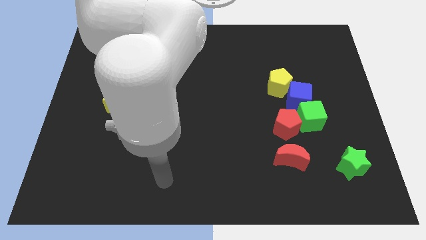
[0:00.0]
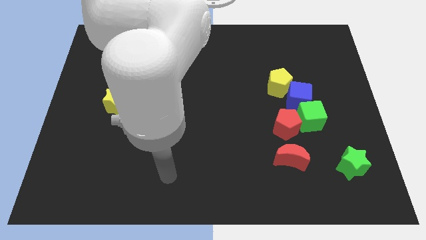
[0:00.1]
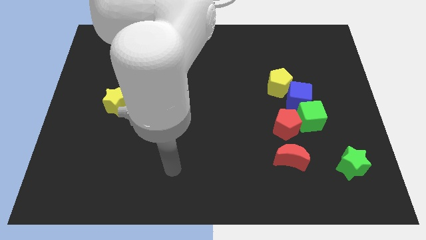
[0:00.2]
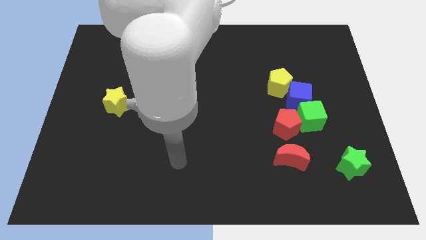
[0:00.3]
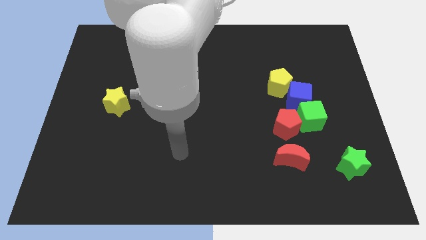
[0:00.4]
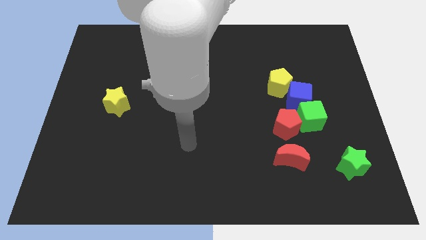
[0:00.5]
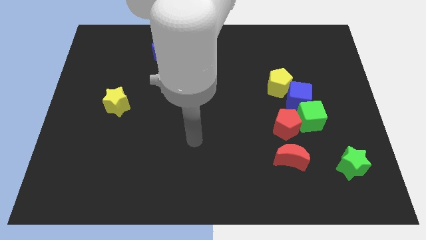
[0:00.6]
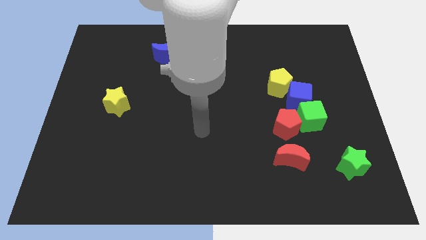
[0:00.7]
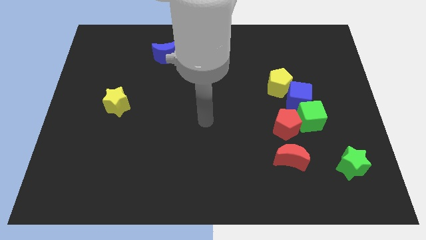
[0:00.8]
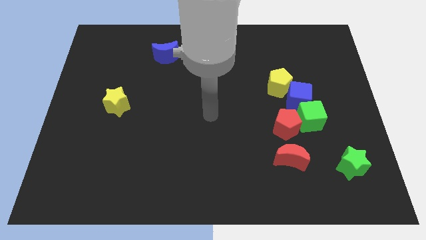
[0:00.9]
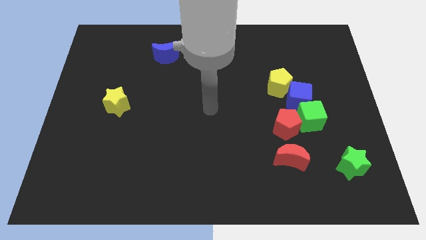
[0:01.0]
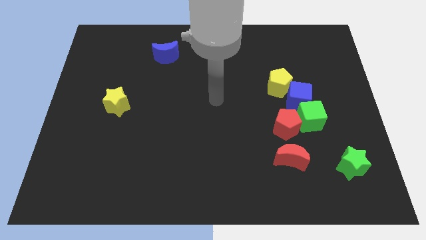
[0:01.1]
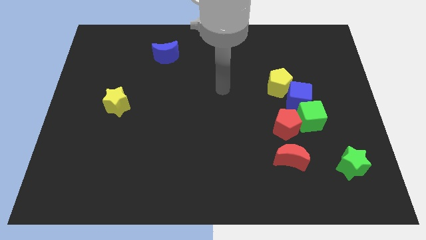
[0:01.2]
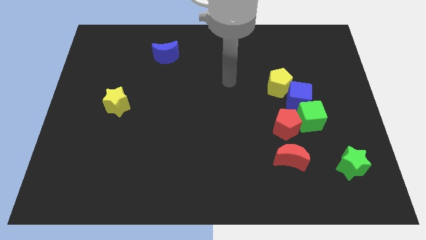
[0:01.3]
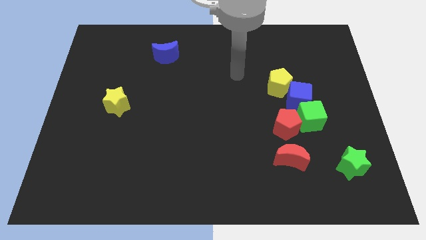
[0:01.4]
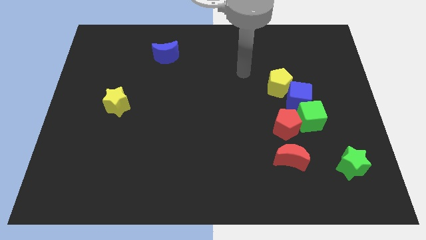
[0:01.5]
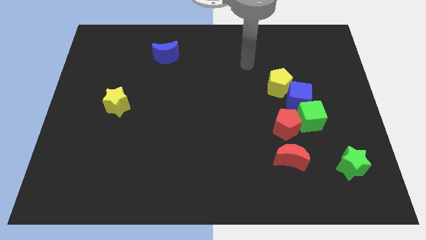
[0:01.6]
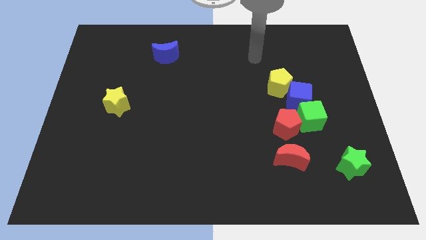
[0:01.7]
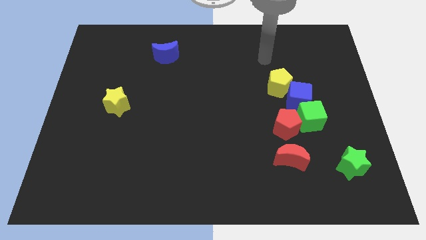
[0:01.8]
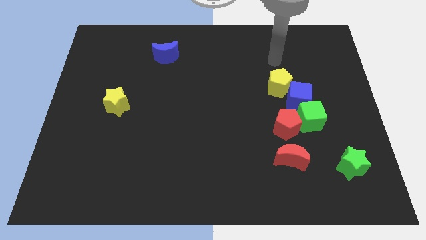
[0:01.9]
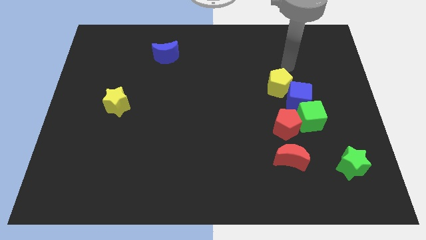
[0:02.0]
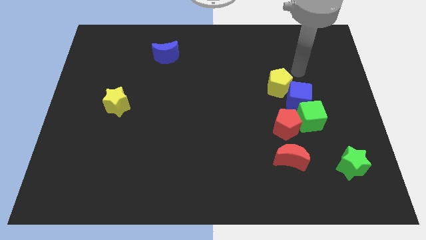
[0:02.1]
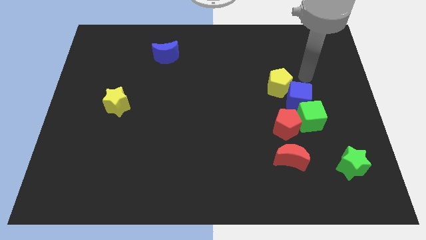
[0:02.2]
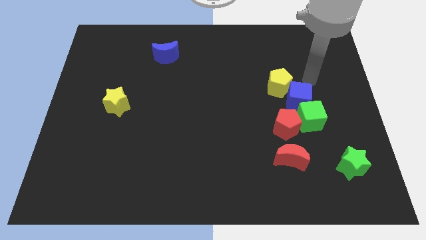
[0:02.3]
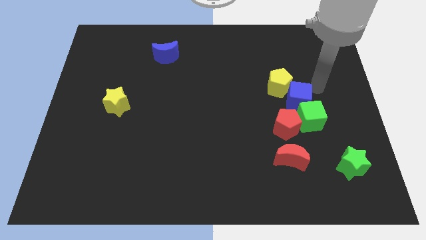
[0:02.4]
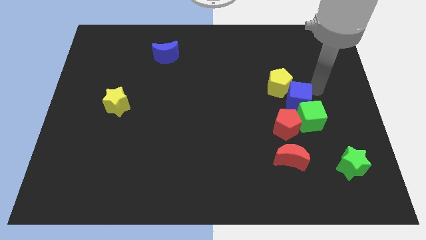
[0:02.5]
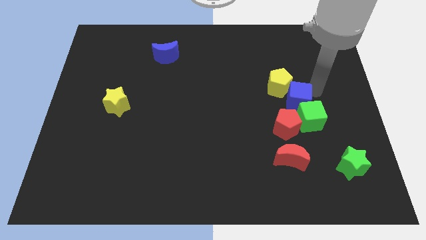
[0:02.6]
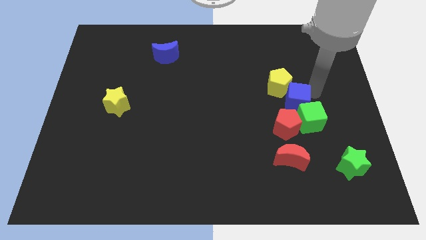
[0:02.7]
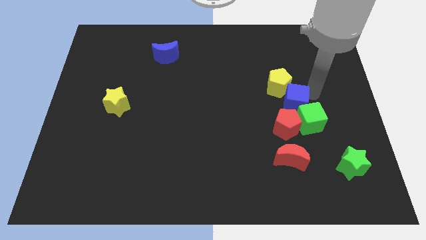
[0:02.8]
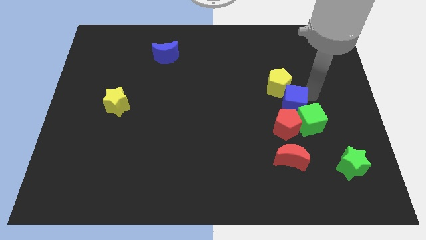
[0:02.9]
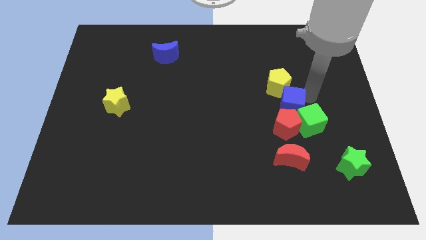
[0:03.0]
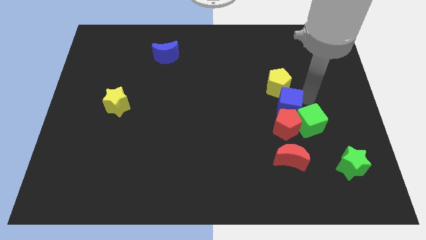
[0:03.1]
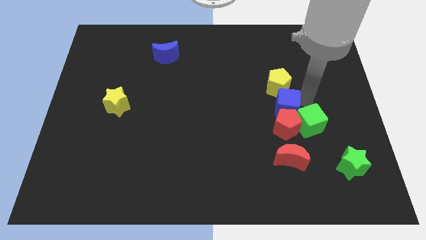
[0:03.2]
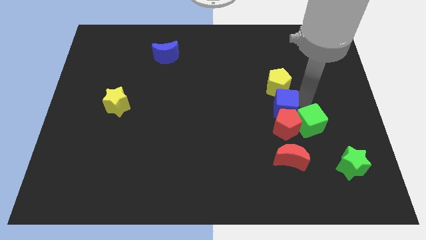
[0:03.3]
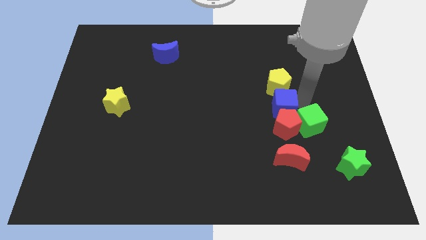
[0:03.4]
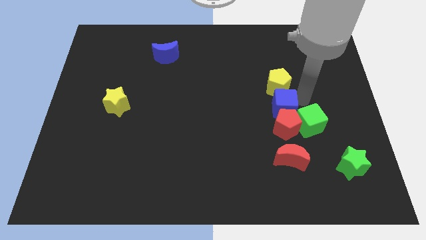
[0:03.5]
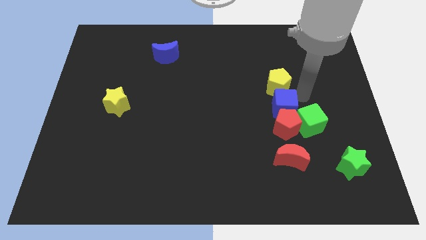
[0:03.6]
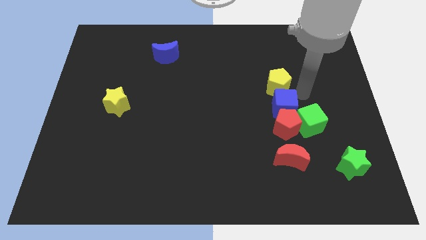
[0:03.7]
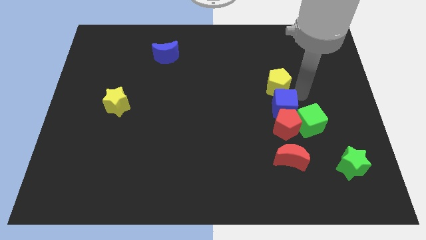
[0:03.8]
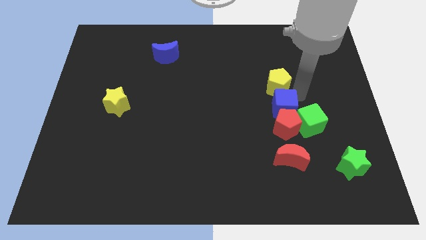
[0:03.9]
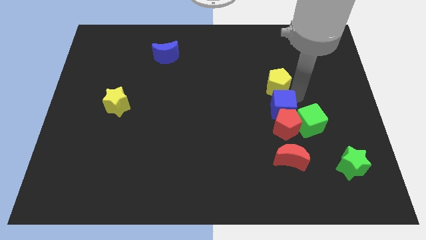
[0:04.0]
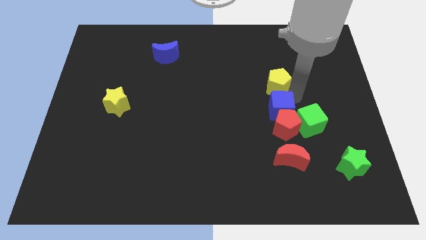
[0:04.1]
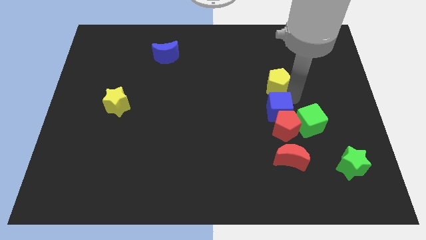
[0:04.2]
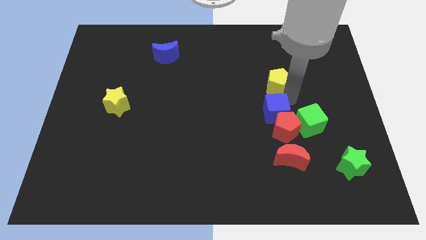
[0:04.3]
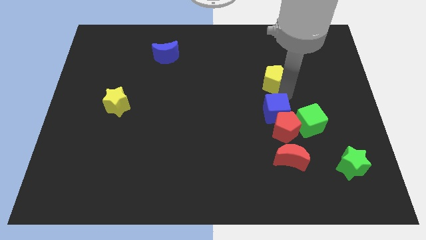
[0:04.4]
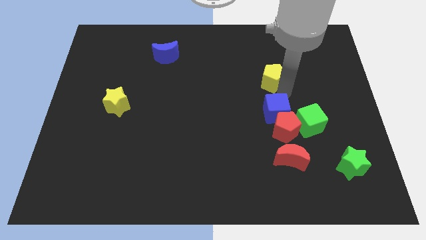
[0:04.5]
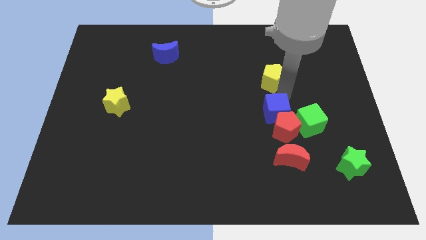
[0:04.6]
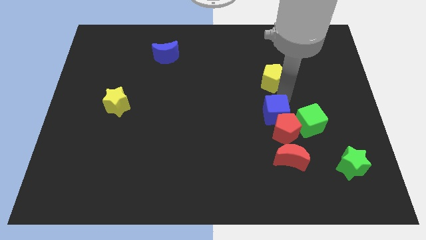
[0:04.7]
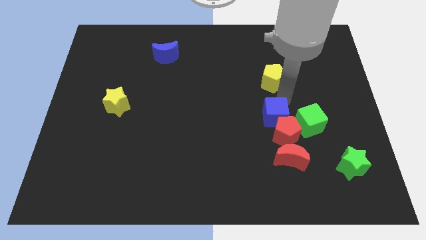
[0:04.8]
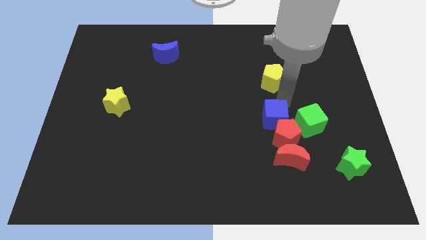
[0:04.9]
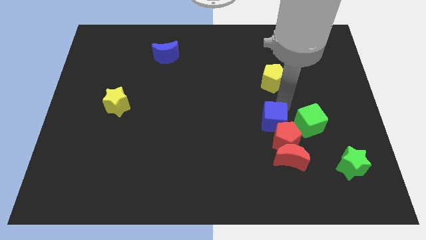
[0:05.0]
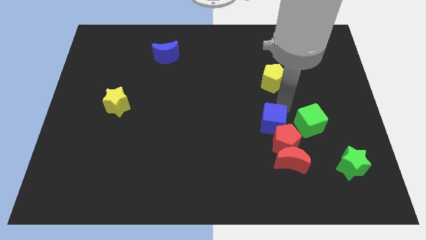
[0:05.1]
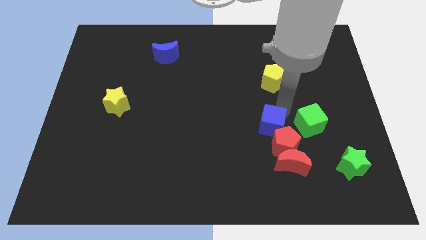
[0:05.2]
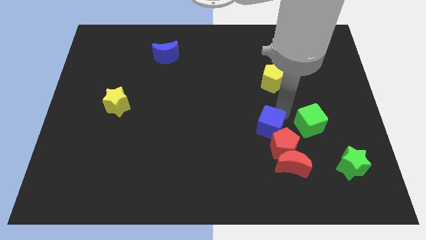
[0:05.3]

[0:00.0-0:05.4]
slide the blue cube diagonally up and to the left of the red moon

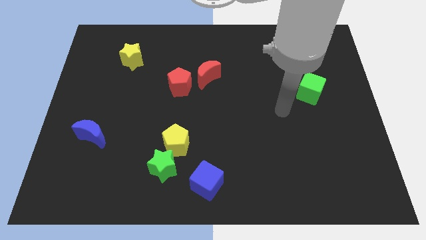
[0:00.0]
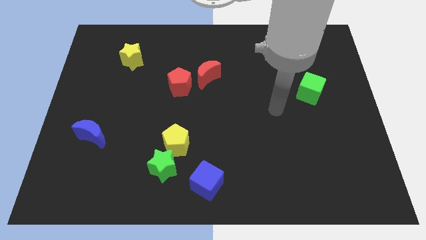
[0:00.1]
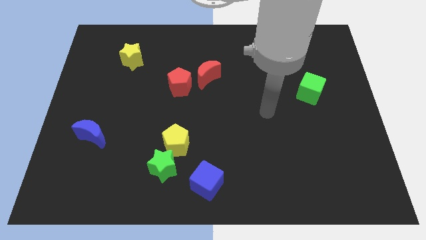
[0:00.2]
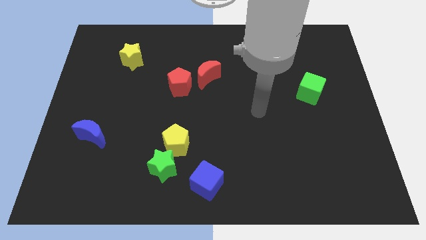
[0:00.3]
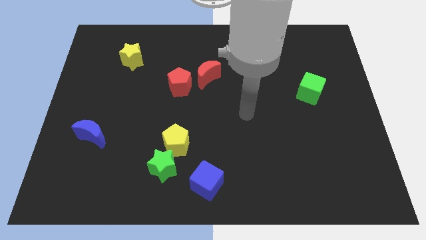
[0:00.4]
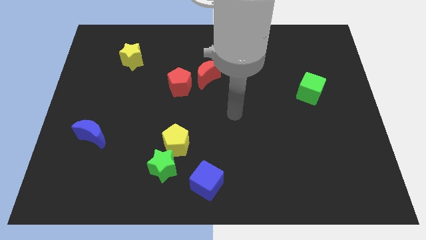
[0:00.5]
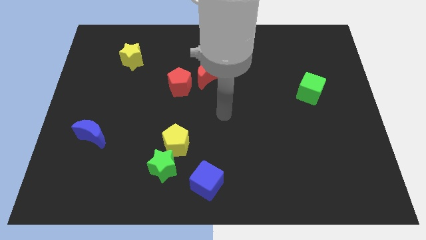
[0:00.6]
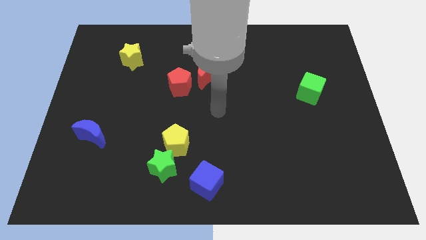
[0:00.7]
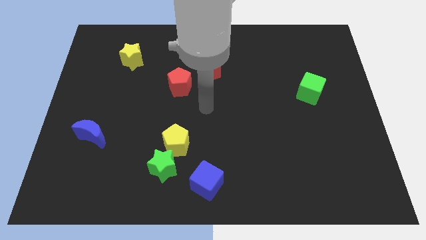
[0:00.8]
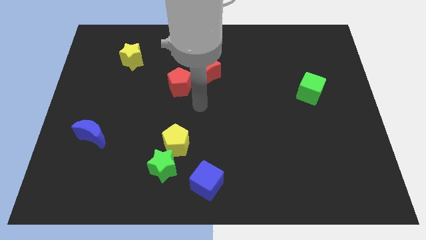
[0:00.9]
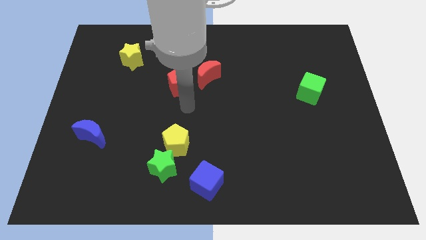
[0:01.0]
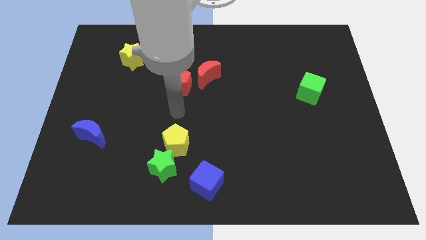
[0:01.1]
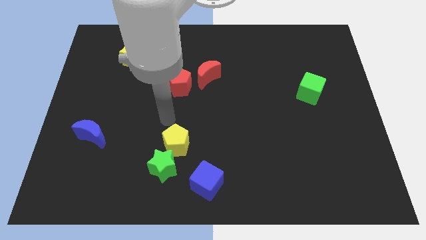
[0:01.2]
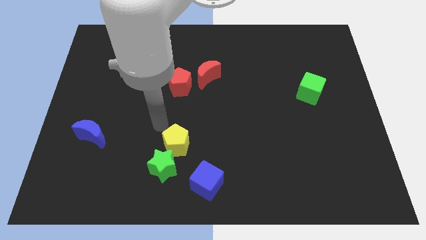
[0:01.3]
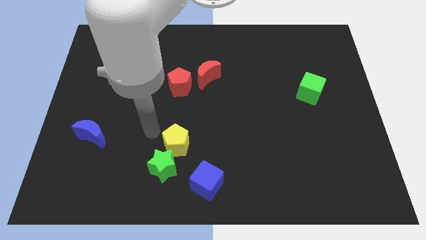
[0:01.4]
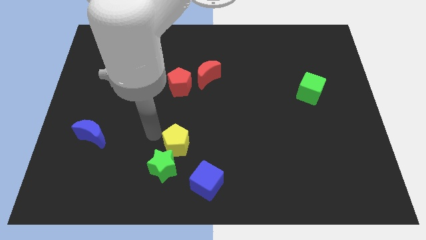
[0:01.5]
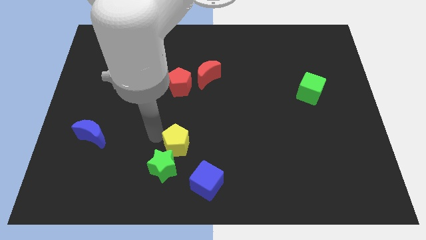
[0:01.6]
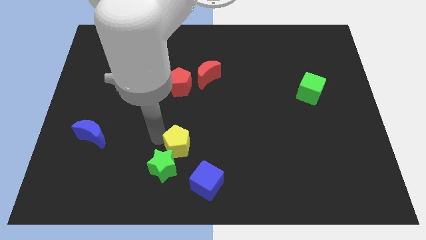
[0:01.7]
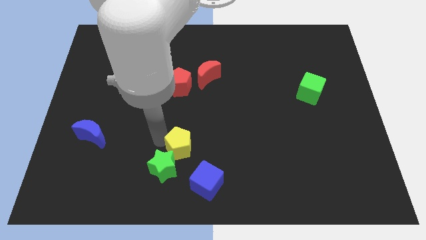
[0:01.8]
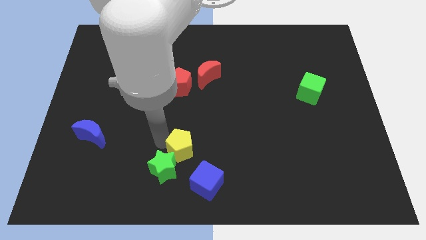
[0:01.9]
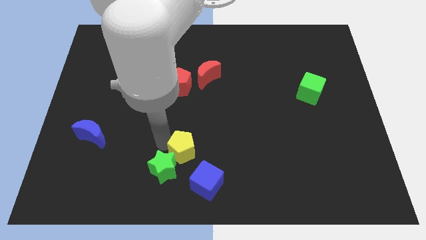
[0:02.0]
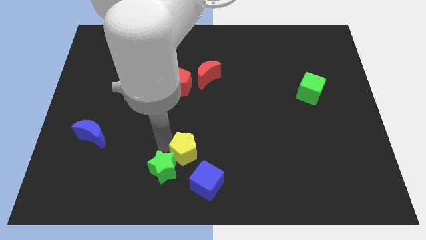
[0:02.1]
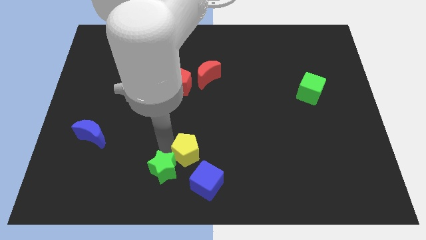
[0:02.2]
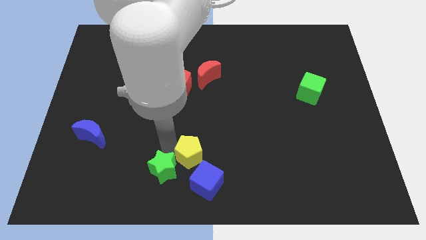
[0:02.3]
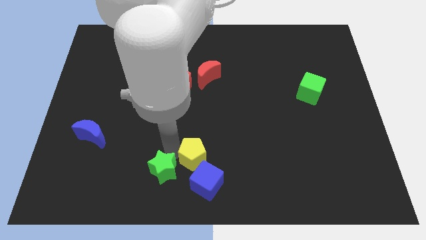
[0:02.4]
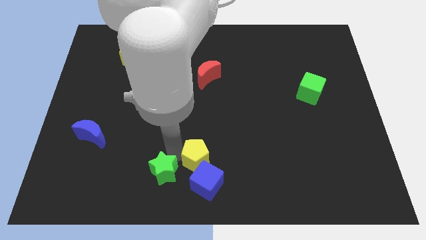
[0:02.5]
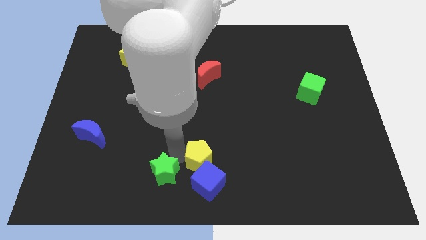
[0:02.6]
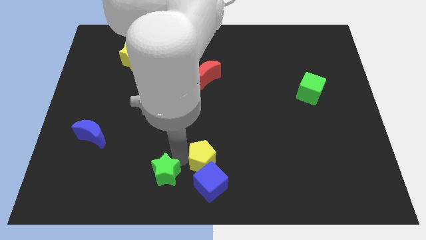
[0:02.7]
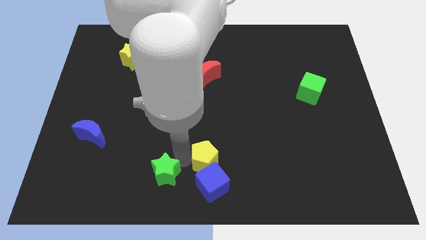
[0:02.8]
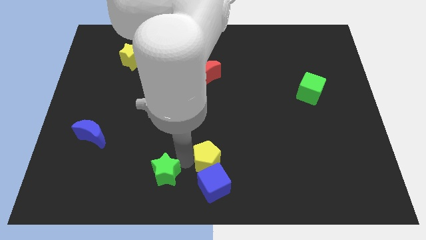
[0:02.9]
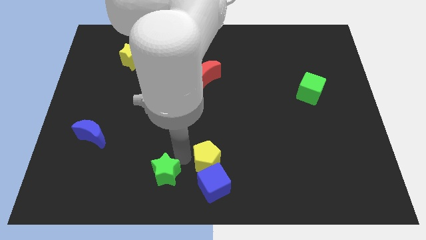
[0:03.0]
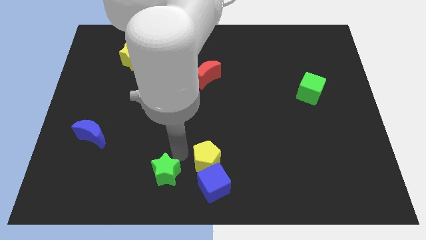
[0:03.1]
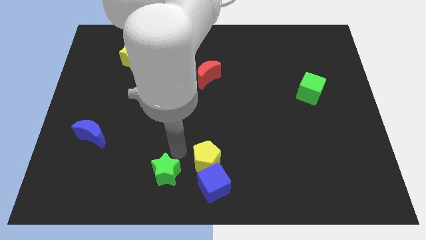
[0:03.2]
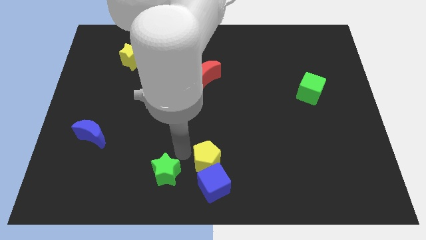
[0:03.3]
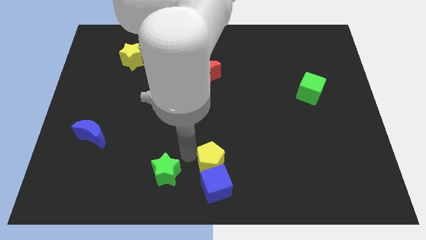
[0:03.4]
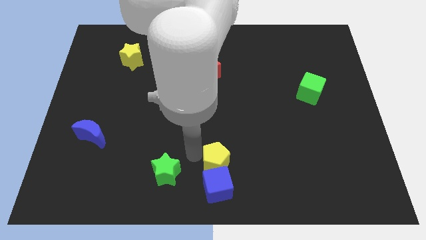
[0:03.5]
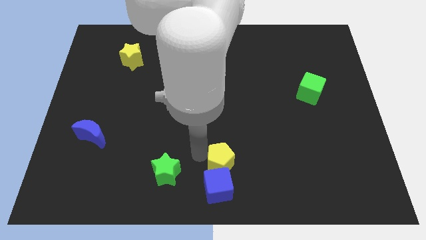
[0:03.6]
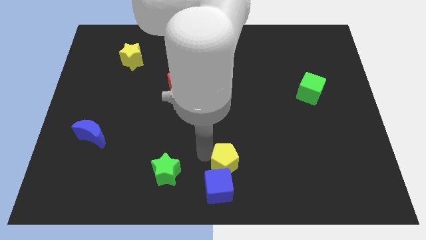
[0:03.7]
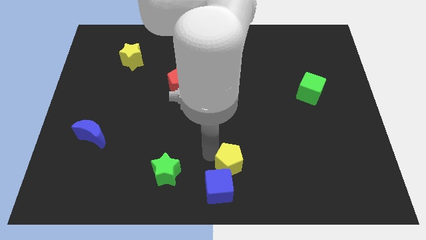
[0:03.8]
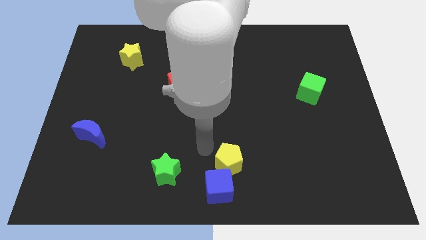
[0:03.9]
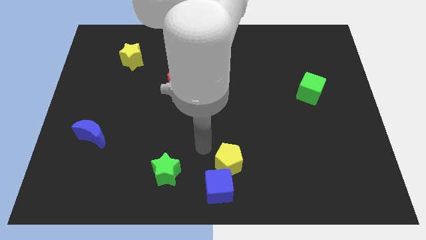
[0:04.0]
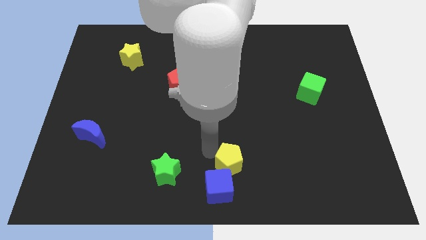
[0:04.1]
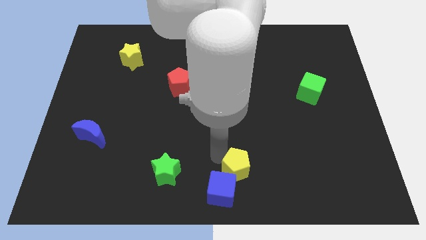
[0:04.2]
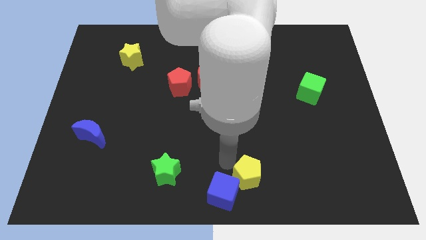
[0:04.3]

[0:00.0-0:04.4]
slide the yellow pentagon right of the blue cube
